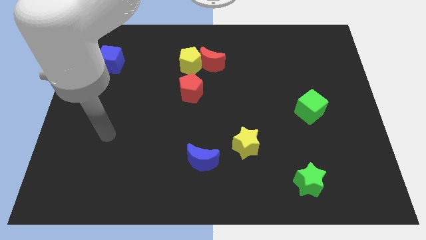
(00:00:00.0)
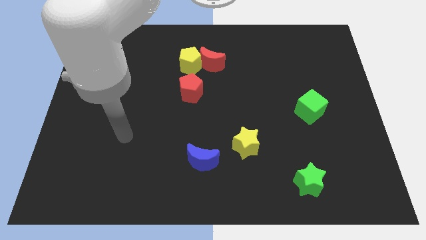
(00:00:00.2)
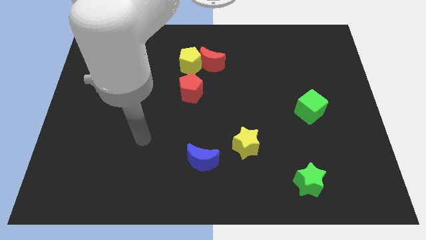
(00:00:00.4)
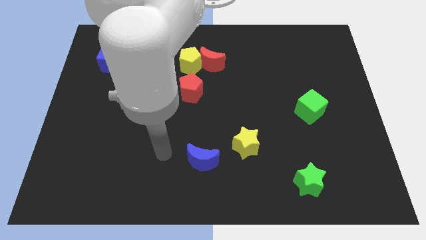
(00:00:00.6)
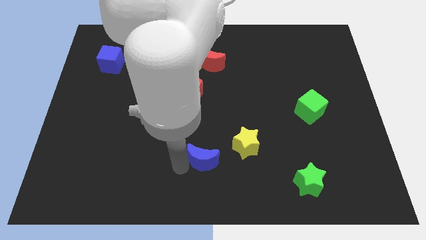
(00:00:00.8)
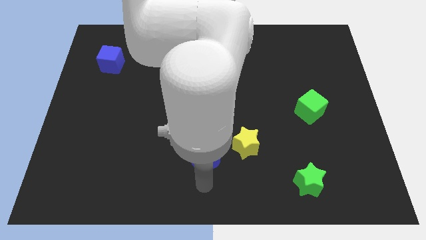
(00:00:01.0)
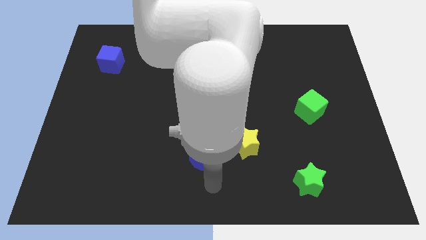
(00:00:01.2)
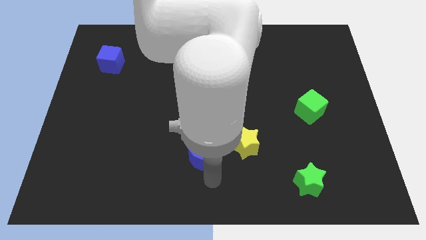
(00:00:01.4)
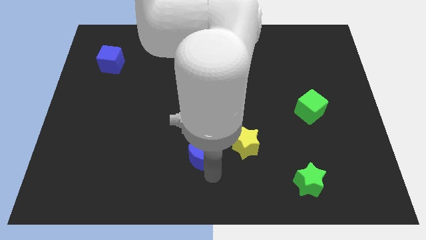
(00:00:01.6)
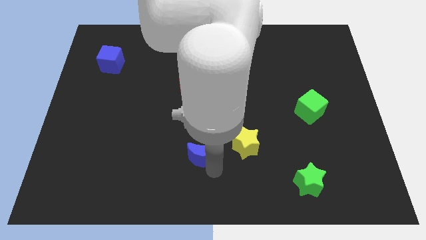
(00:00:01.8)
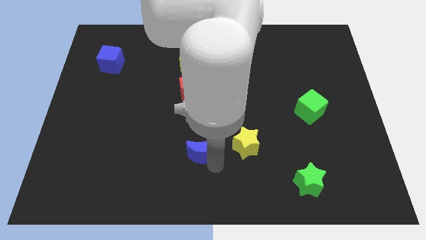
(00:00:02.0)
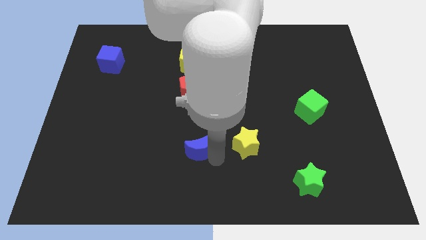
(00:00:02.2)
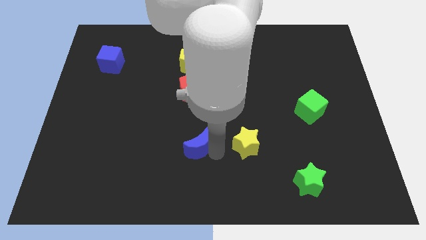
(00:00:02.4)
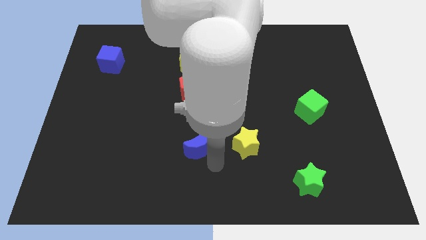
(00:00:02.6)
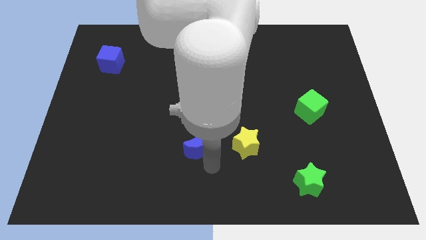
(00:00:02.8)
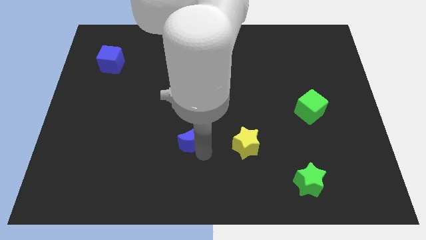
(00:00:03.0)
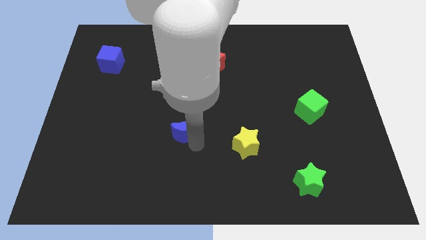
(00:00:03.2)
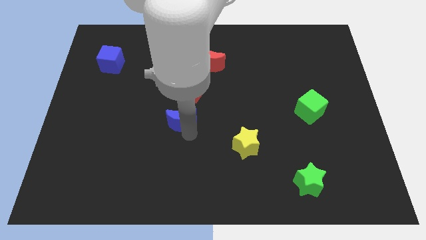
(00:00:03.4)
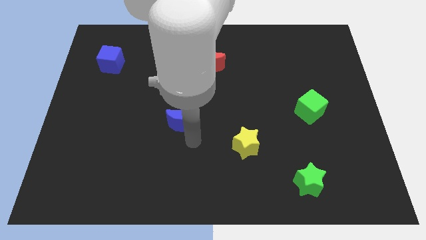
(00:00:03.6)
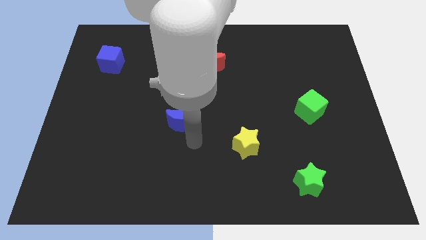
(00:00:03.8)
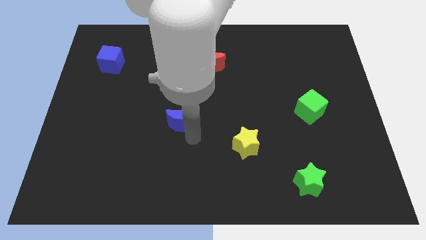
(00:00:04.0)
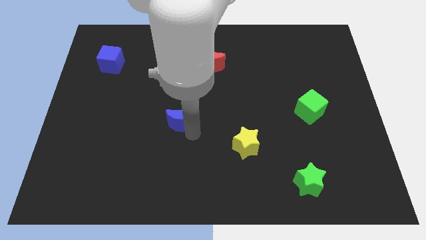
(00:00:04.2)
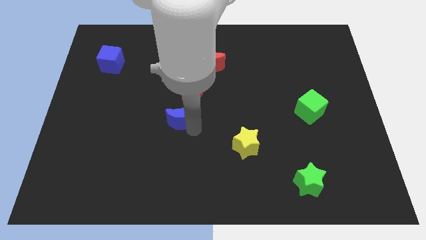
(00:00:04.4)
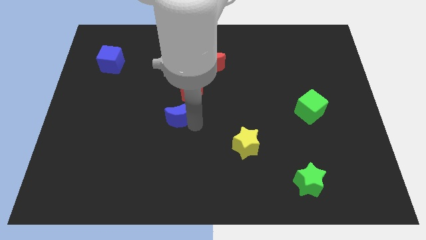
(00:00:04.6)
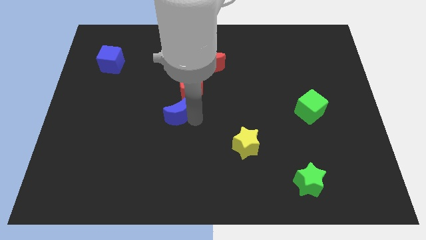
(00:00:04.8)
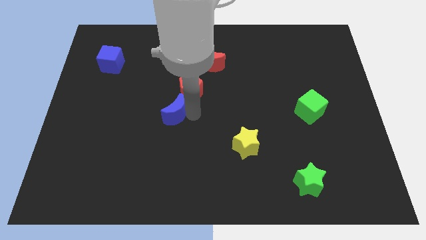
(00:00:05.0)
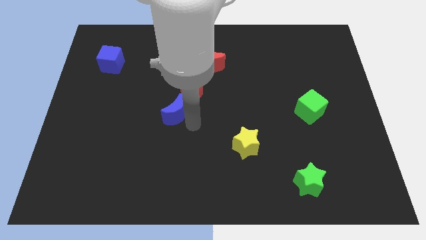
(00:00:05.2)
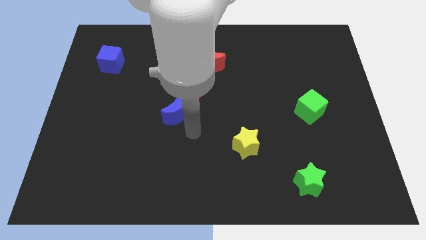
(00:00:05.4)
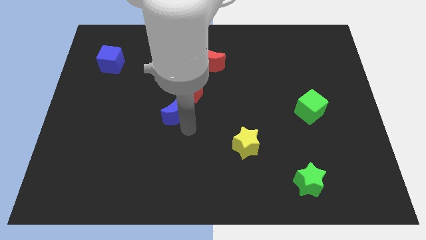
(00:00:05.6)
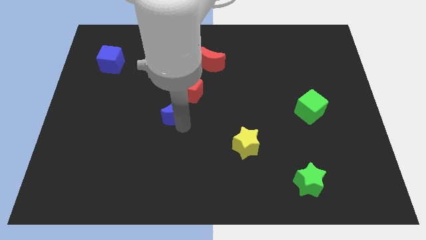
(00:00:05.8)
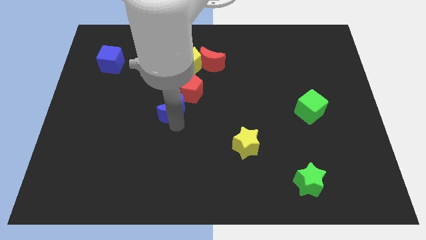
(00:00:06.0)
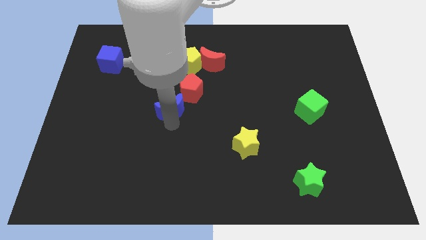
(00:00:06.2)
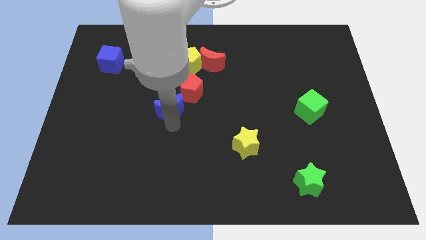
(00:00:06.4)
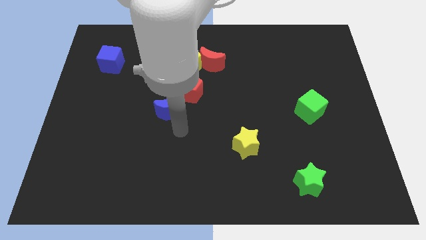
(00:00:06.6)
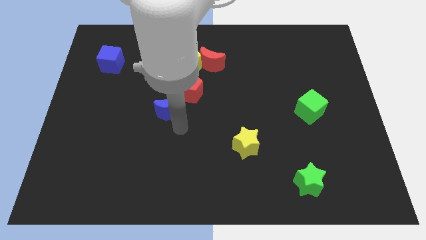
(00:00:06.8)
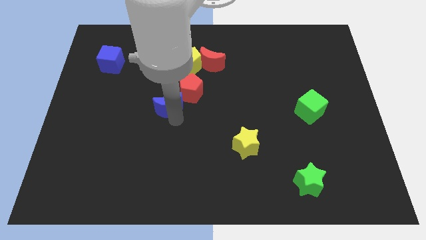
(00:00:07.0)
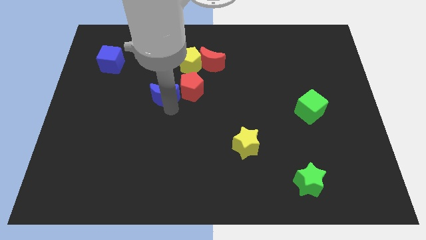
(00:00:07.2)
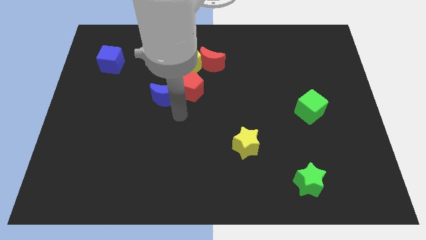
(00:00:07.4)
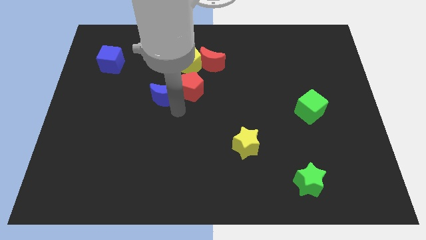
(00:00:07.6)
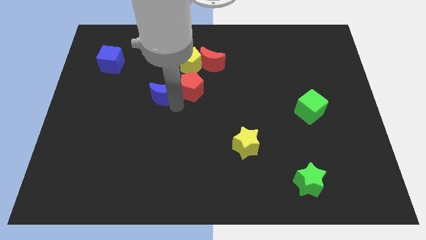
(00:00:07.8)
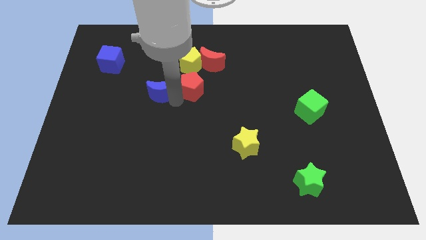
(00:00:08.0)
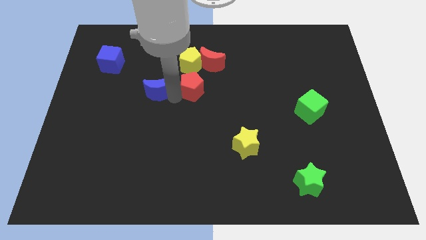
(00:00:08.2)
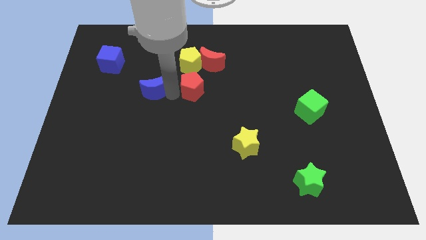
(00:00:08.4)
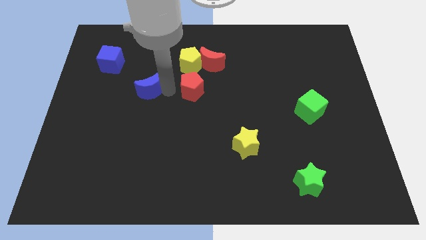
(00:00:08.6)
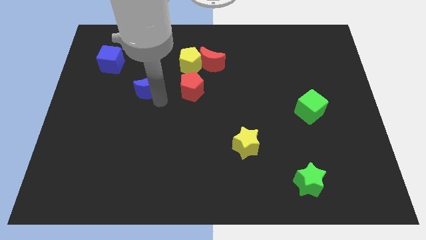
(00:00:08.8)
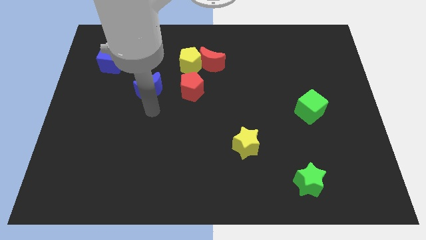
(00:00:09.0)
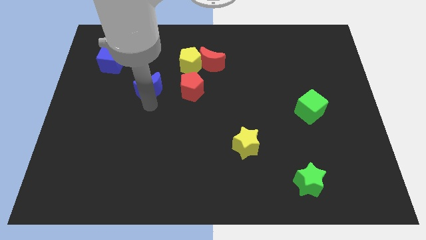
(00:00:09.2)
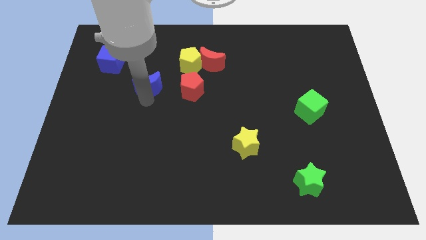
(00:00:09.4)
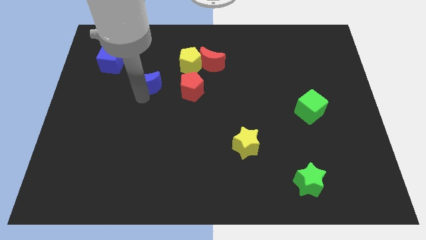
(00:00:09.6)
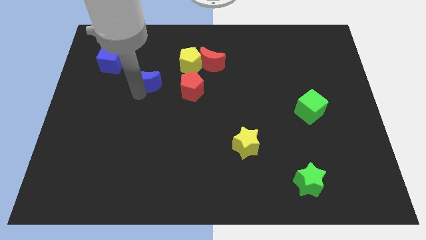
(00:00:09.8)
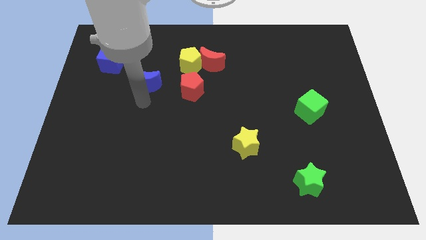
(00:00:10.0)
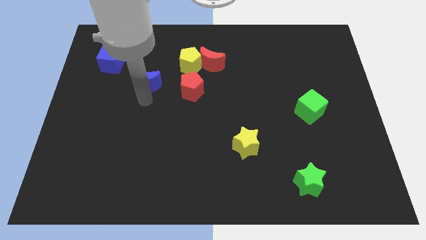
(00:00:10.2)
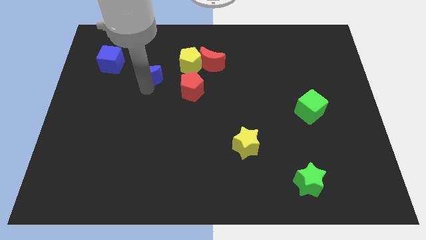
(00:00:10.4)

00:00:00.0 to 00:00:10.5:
move the blue moon to the left side of the yellow pentagon

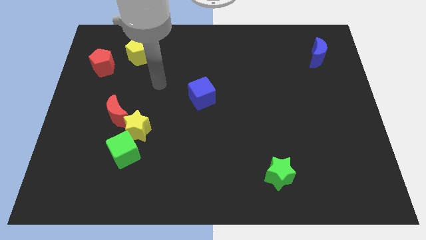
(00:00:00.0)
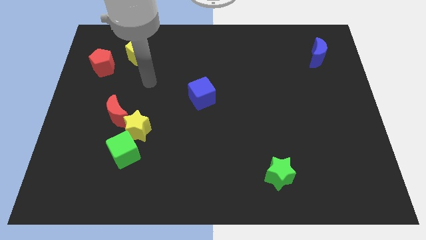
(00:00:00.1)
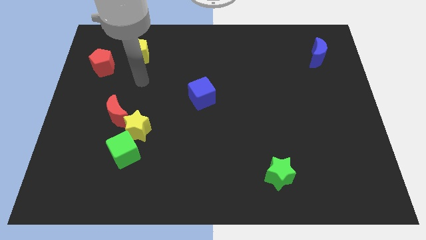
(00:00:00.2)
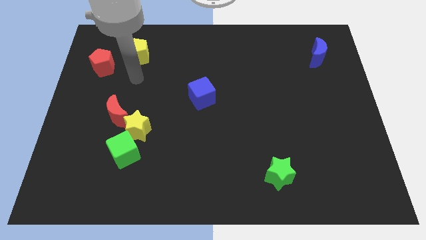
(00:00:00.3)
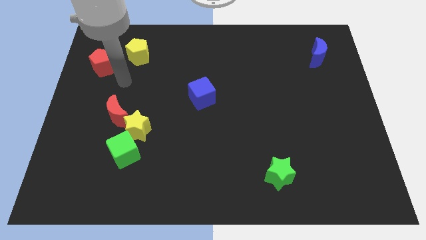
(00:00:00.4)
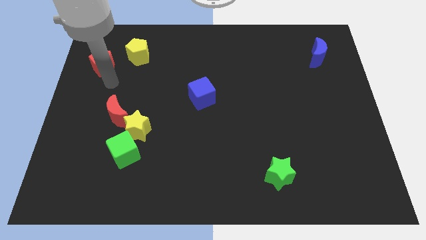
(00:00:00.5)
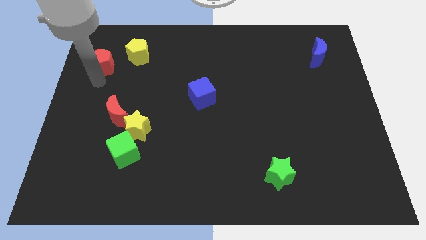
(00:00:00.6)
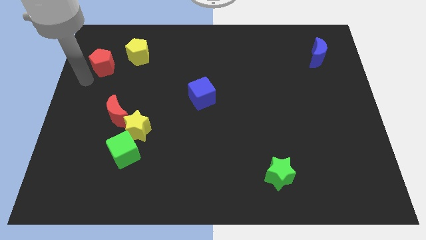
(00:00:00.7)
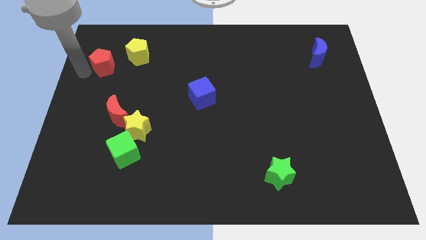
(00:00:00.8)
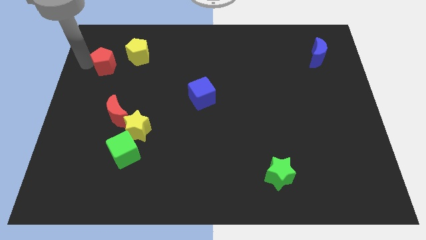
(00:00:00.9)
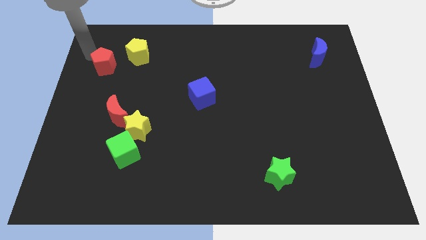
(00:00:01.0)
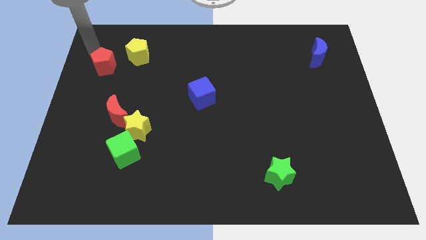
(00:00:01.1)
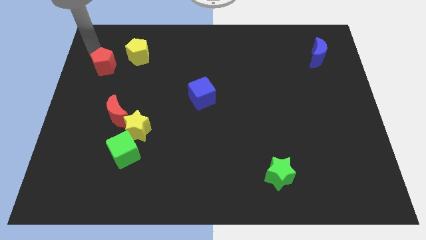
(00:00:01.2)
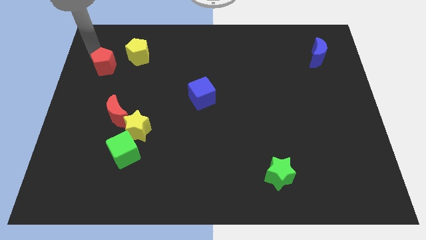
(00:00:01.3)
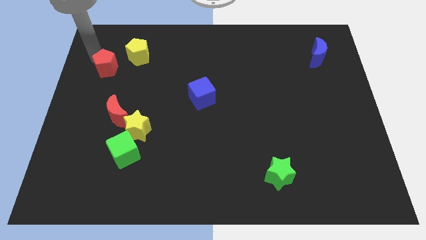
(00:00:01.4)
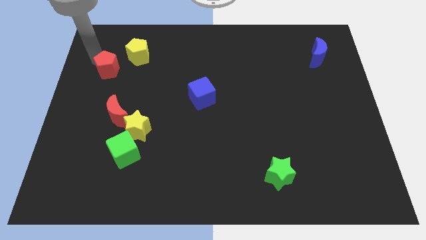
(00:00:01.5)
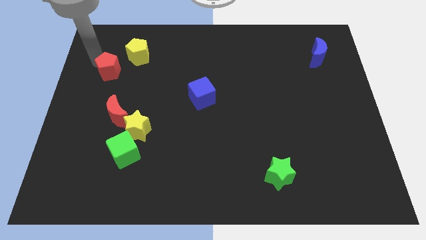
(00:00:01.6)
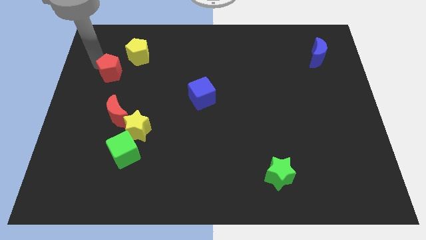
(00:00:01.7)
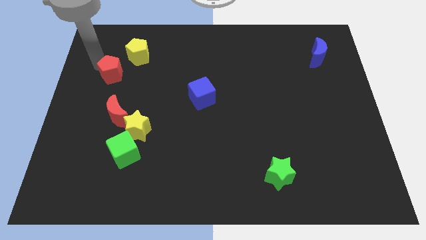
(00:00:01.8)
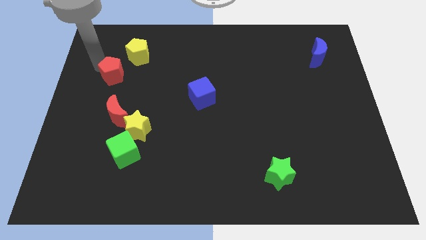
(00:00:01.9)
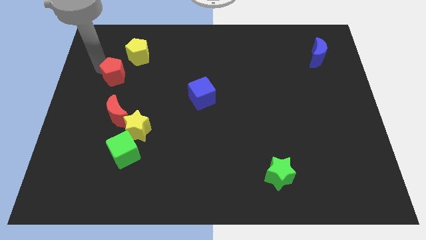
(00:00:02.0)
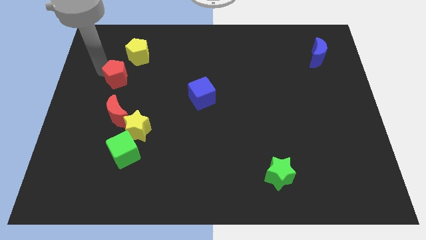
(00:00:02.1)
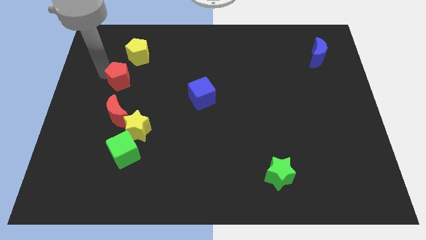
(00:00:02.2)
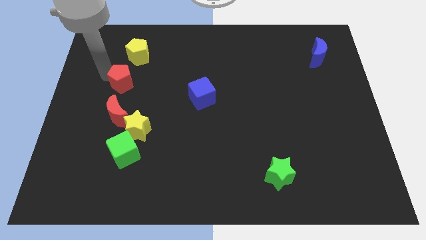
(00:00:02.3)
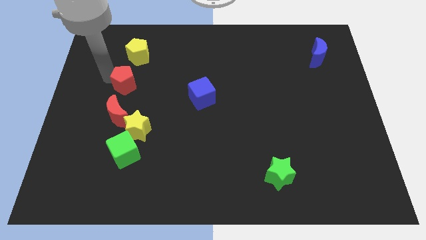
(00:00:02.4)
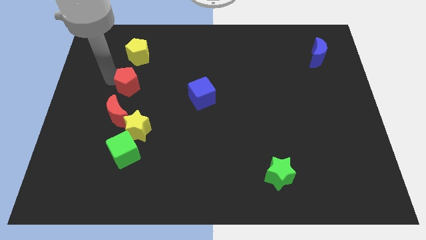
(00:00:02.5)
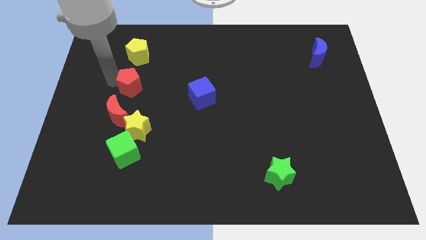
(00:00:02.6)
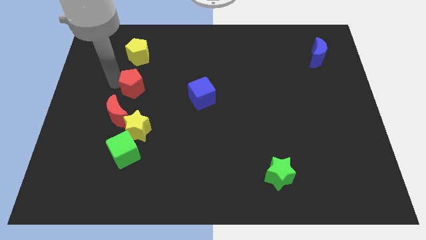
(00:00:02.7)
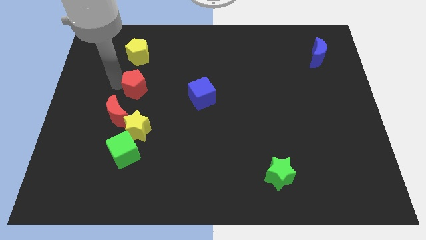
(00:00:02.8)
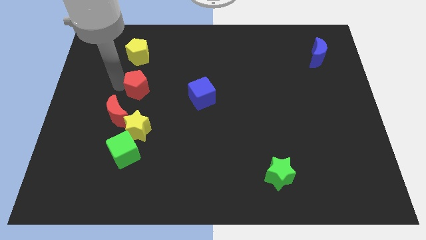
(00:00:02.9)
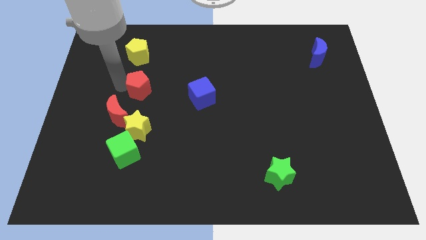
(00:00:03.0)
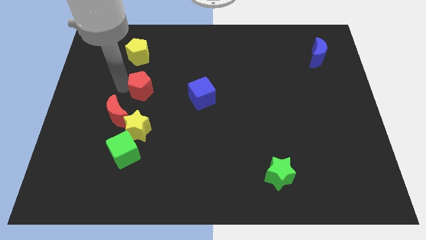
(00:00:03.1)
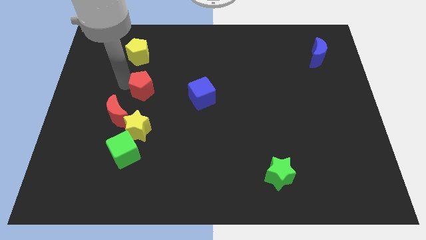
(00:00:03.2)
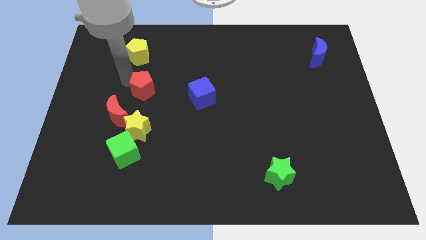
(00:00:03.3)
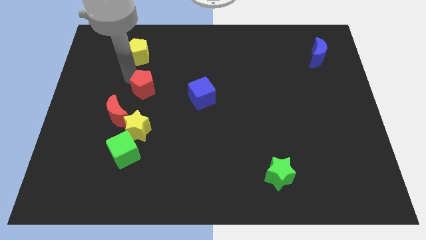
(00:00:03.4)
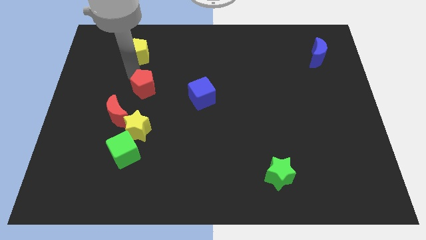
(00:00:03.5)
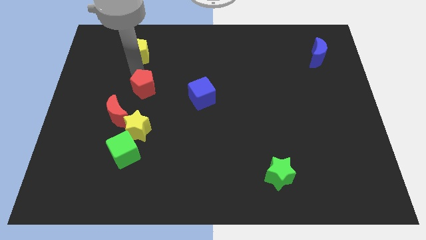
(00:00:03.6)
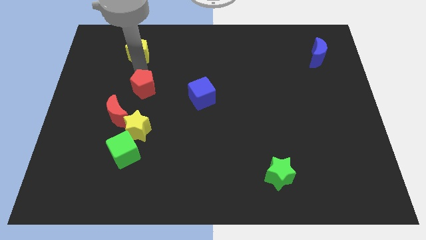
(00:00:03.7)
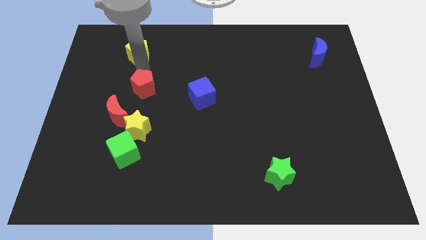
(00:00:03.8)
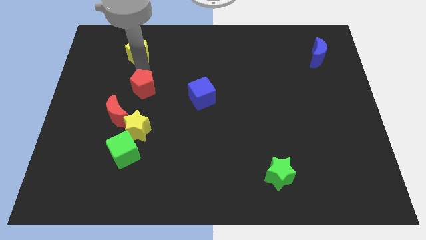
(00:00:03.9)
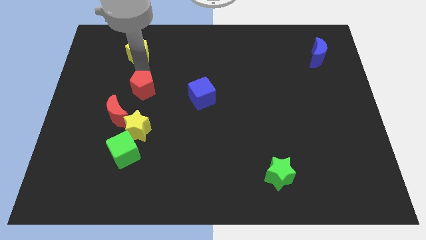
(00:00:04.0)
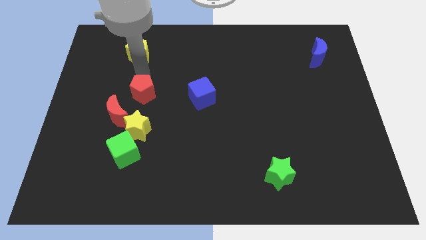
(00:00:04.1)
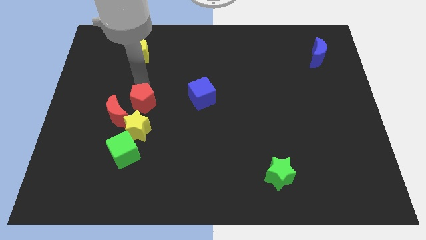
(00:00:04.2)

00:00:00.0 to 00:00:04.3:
move the red pentagon to the right of the red moon
